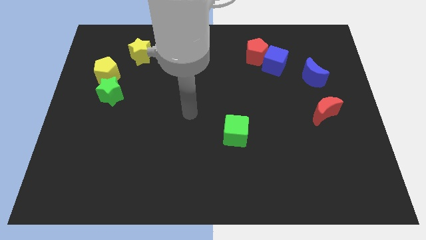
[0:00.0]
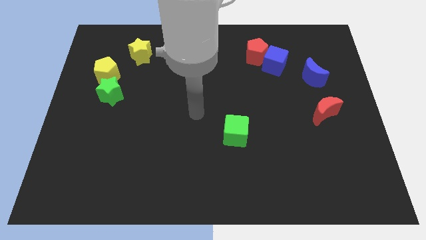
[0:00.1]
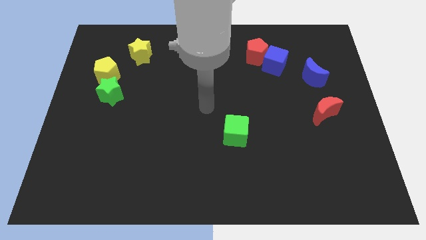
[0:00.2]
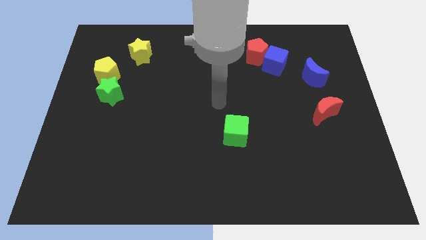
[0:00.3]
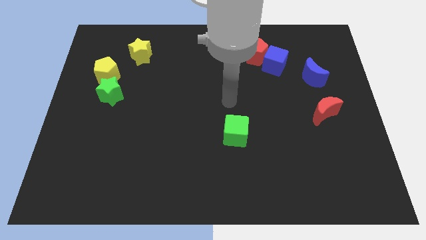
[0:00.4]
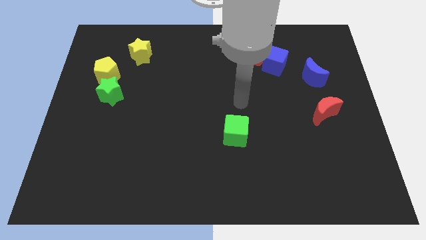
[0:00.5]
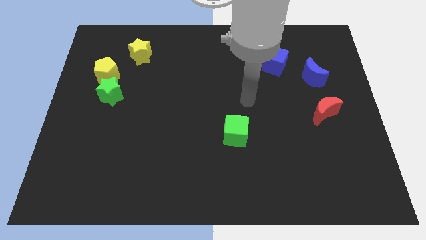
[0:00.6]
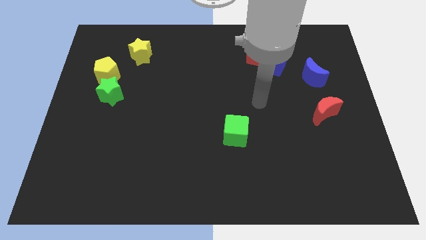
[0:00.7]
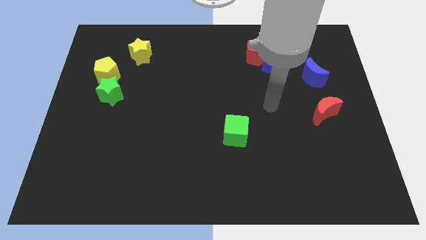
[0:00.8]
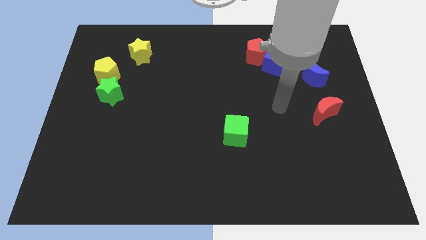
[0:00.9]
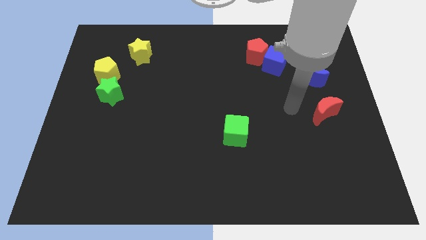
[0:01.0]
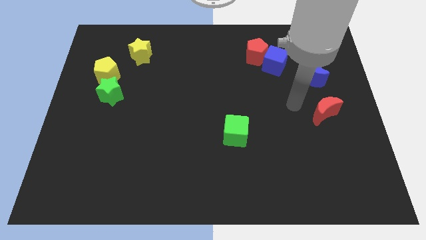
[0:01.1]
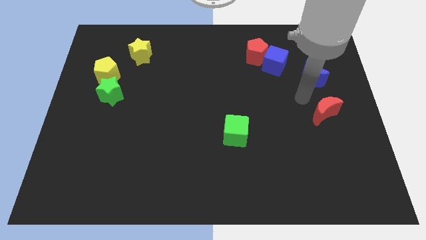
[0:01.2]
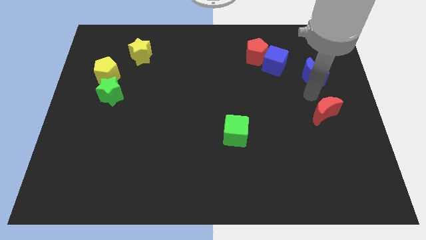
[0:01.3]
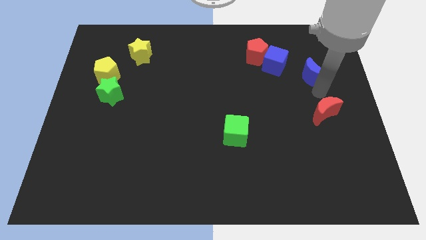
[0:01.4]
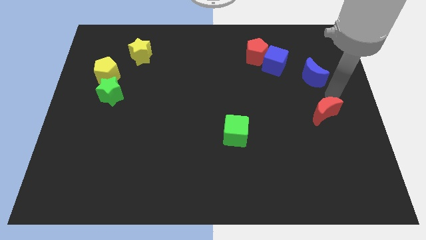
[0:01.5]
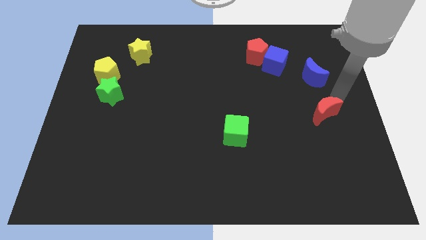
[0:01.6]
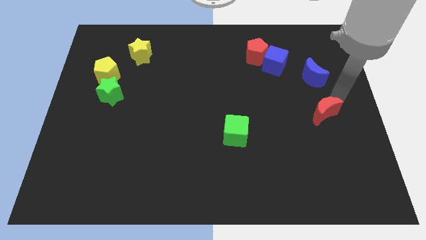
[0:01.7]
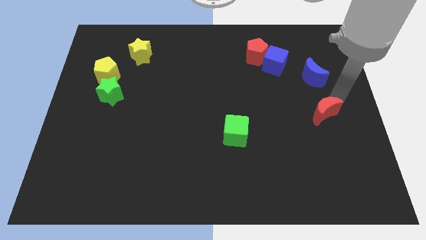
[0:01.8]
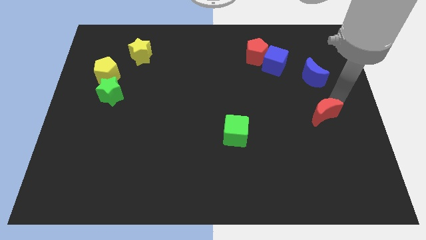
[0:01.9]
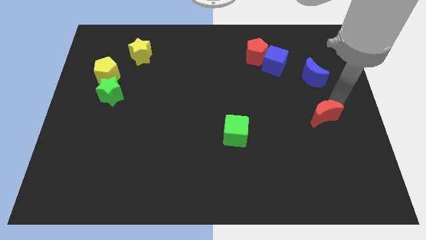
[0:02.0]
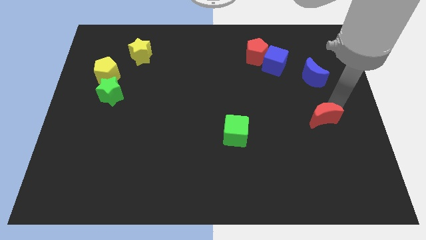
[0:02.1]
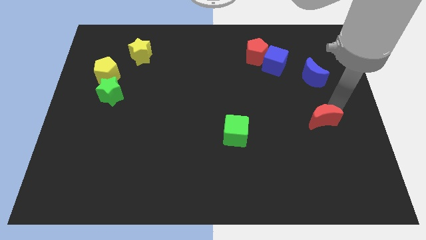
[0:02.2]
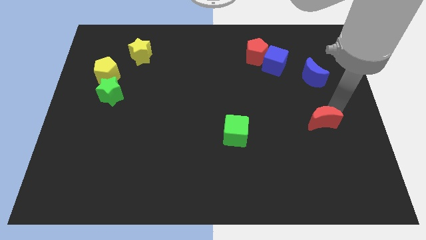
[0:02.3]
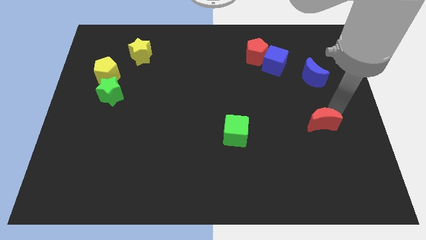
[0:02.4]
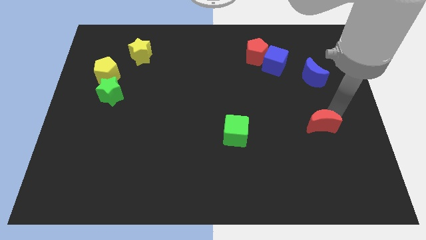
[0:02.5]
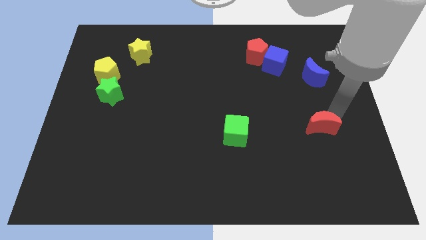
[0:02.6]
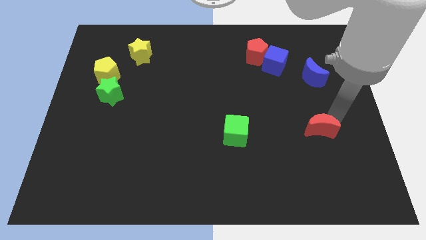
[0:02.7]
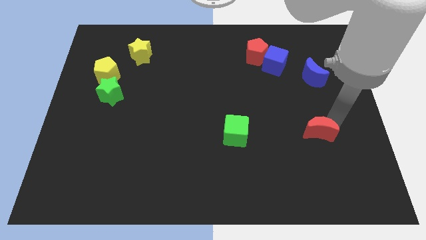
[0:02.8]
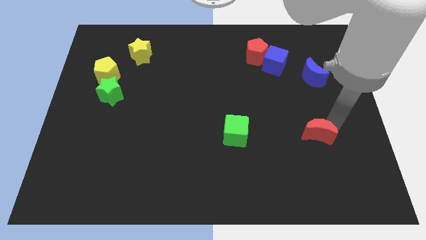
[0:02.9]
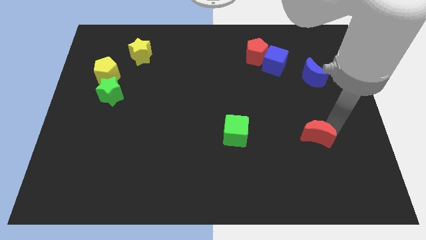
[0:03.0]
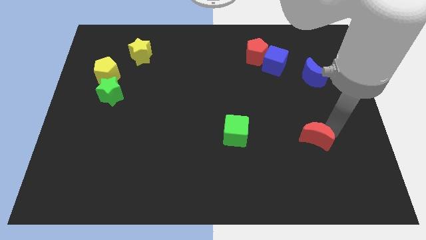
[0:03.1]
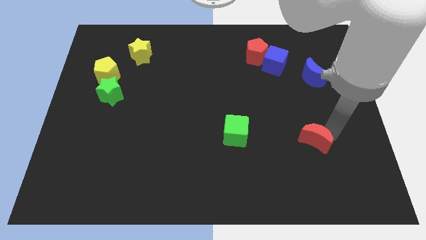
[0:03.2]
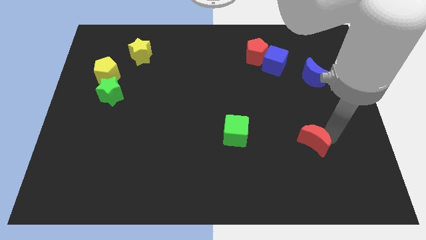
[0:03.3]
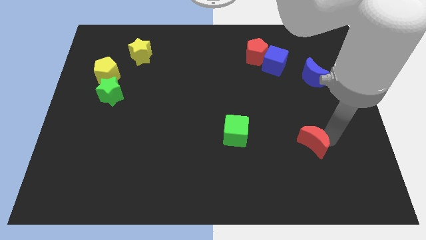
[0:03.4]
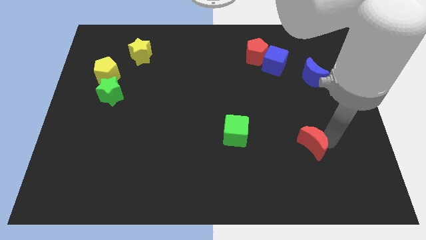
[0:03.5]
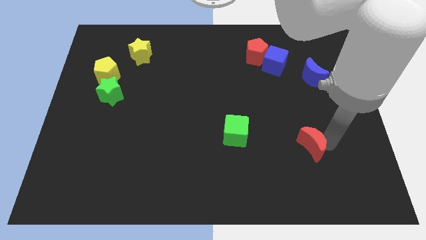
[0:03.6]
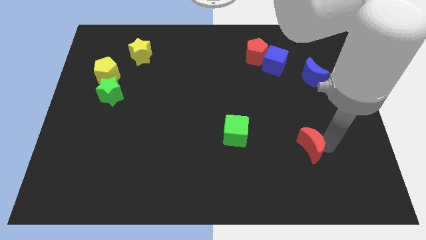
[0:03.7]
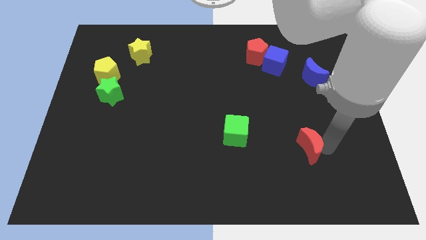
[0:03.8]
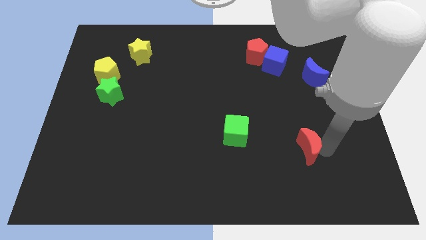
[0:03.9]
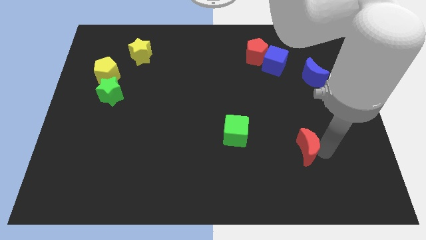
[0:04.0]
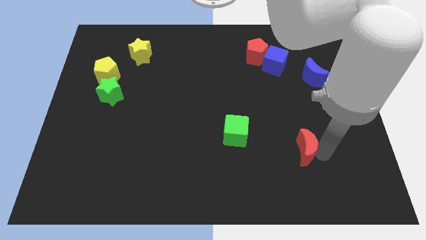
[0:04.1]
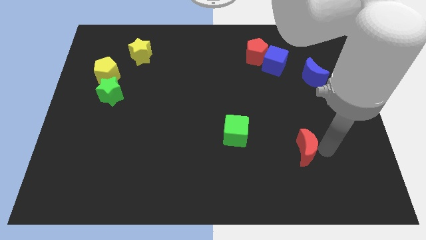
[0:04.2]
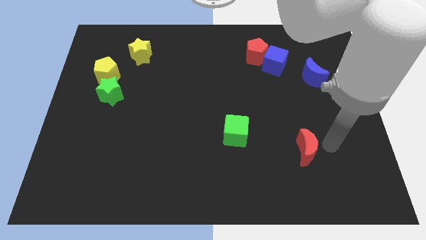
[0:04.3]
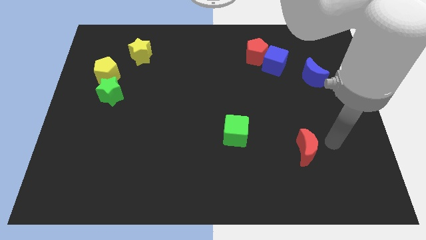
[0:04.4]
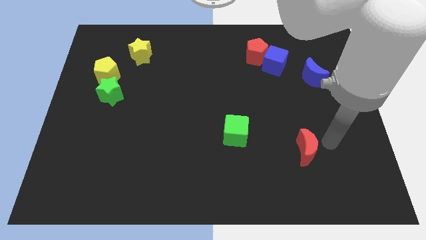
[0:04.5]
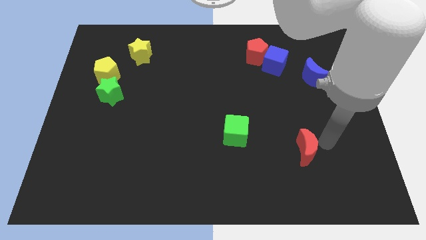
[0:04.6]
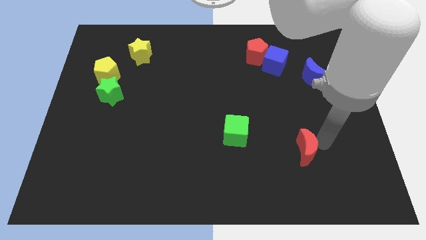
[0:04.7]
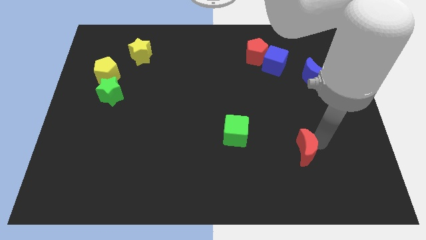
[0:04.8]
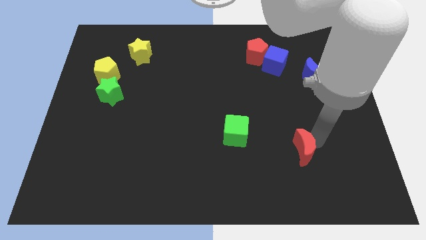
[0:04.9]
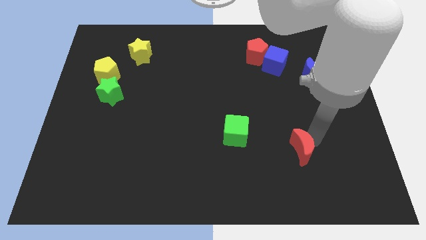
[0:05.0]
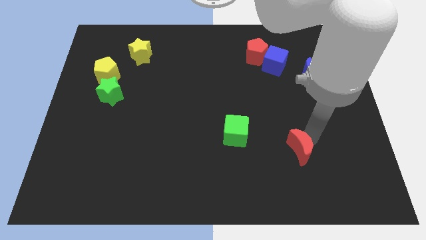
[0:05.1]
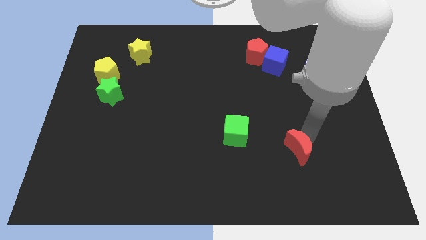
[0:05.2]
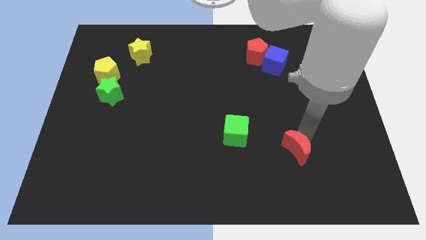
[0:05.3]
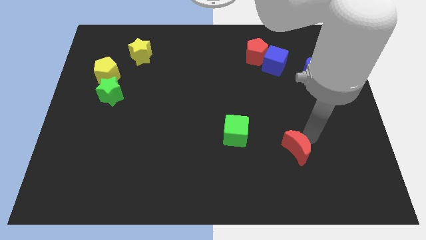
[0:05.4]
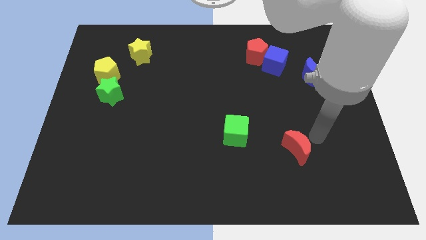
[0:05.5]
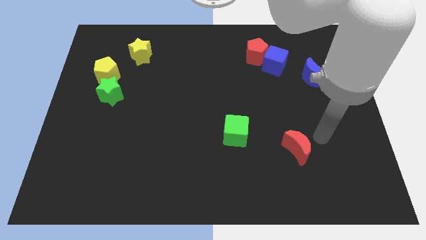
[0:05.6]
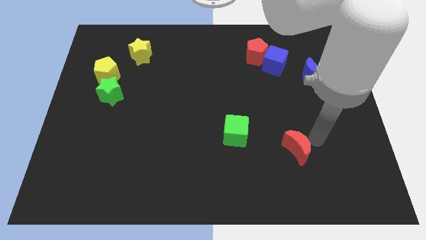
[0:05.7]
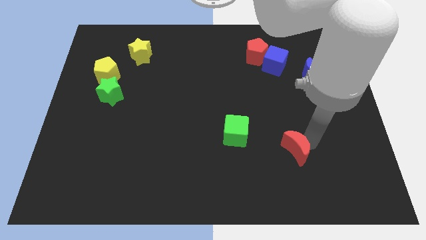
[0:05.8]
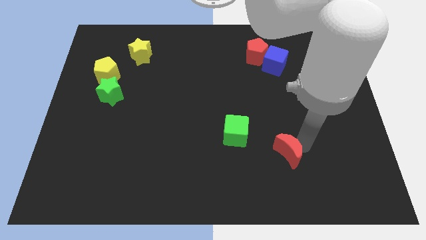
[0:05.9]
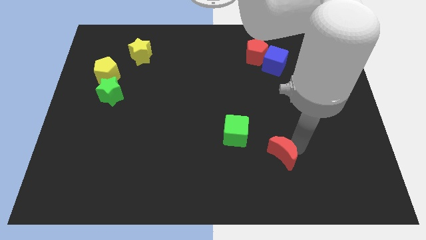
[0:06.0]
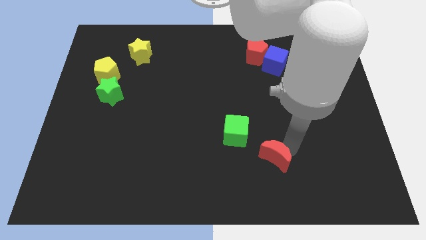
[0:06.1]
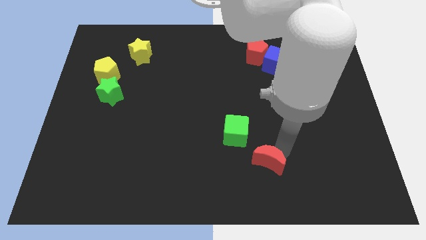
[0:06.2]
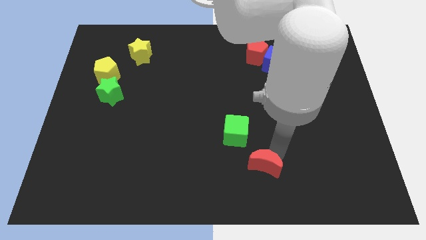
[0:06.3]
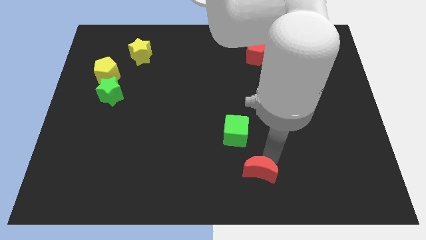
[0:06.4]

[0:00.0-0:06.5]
move the red moon to the bottom side

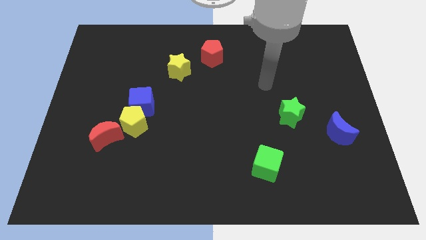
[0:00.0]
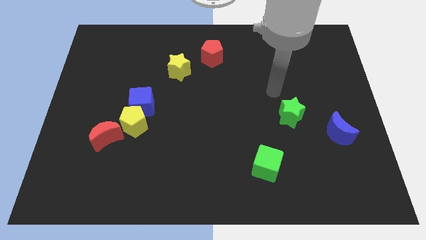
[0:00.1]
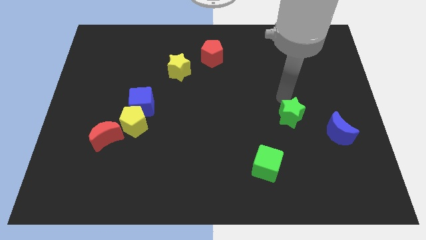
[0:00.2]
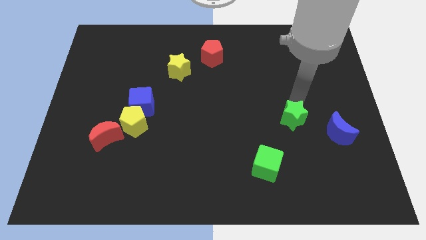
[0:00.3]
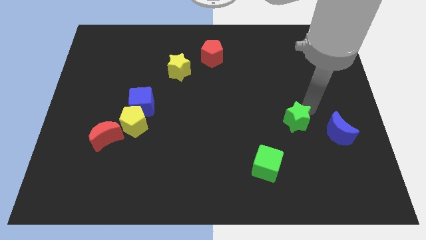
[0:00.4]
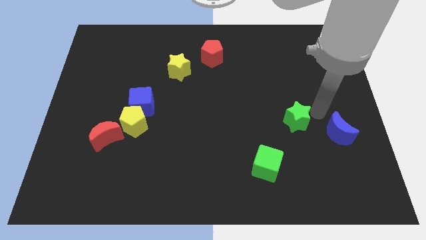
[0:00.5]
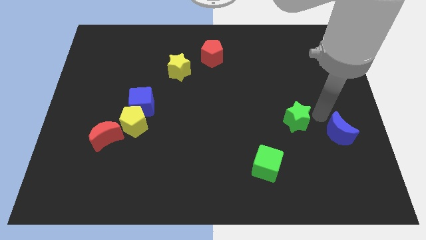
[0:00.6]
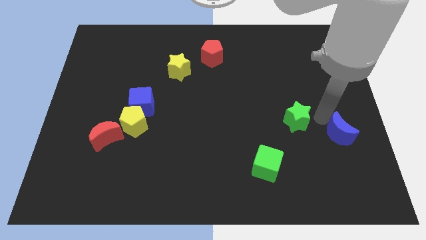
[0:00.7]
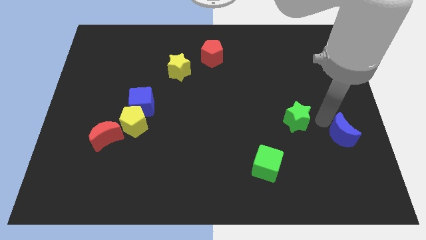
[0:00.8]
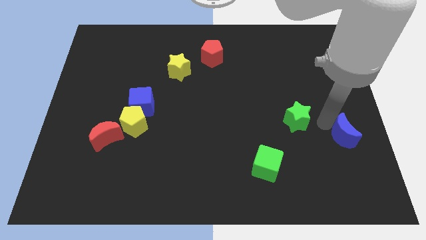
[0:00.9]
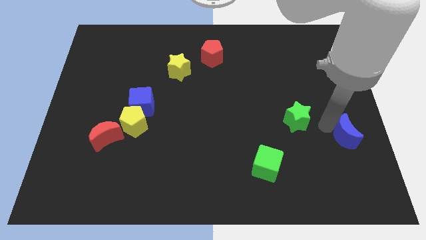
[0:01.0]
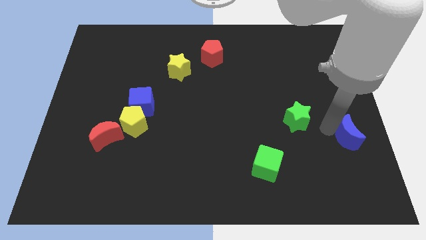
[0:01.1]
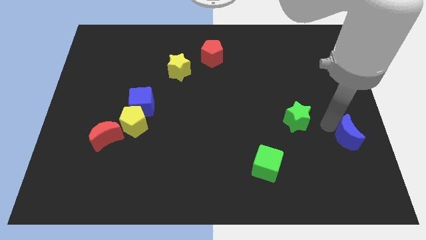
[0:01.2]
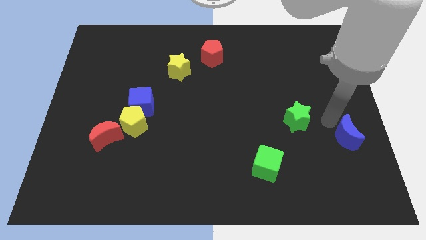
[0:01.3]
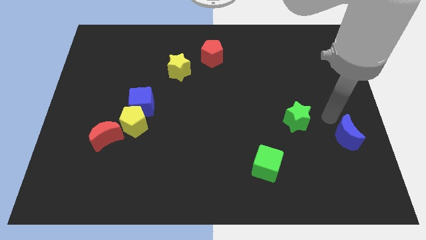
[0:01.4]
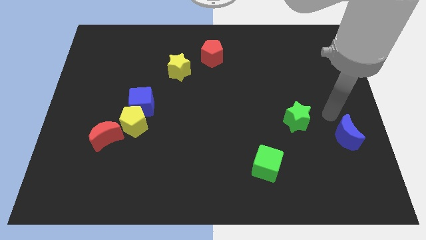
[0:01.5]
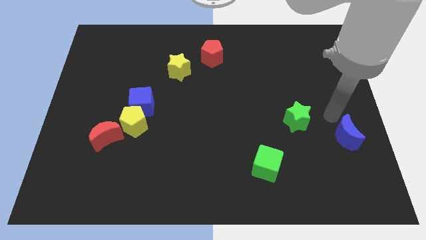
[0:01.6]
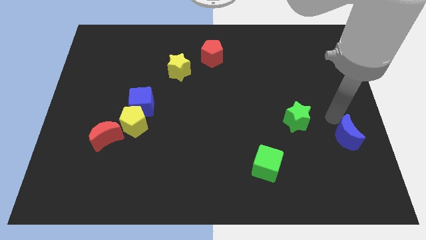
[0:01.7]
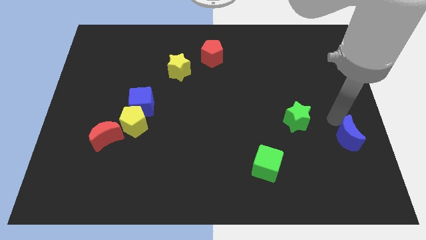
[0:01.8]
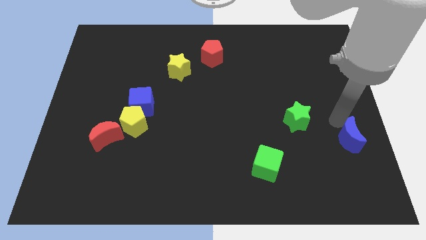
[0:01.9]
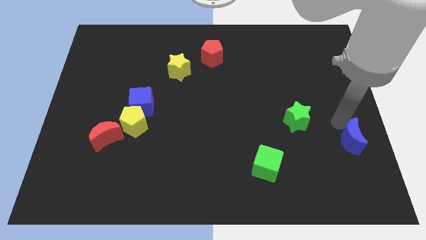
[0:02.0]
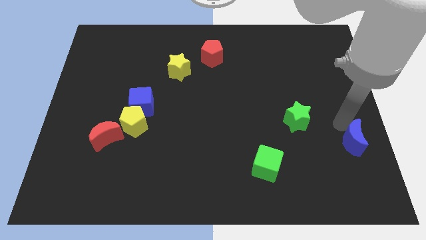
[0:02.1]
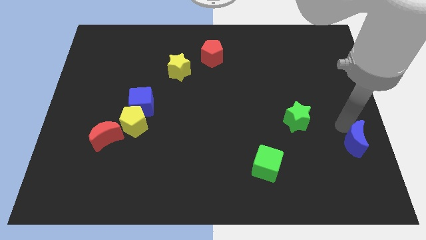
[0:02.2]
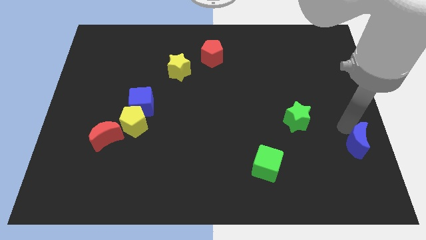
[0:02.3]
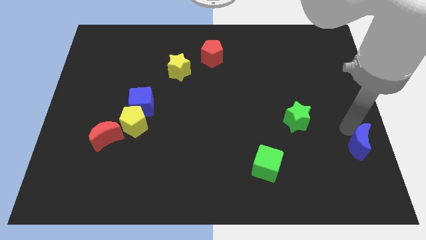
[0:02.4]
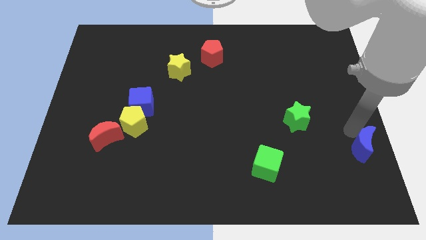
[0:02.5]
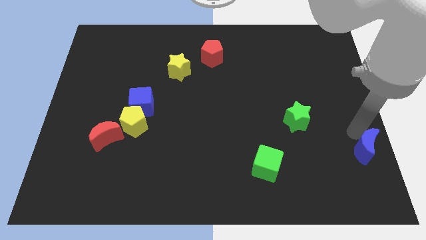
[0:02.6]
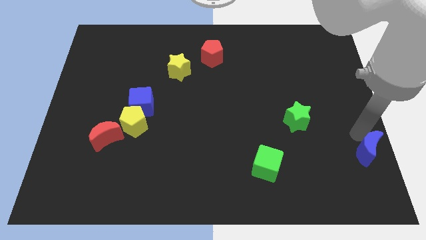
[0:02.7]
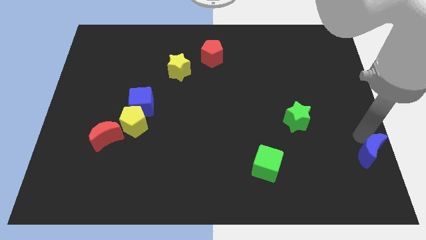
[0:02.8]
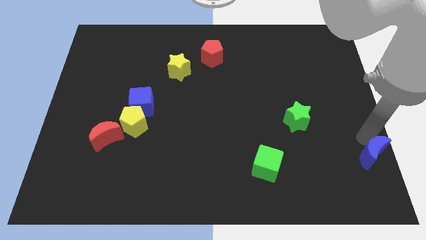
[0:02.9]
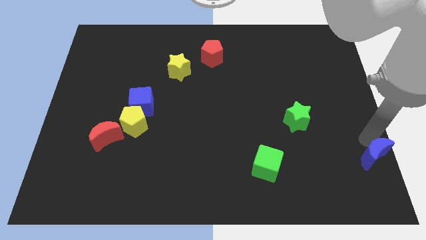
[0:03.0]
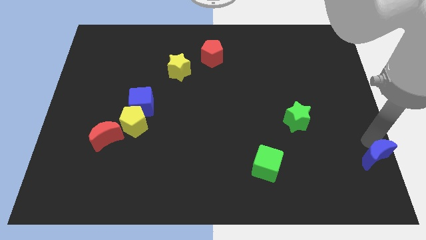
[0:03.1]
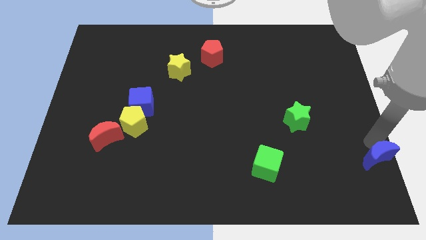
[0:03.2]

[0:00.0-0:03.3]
put the blue moon to the lower right corner
